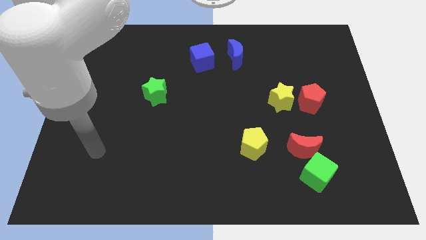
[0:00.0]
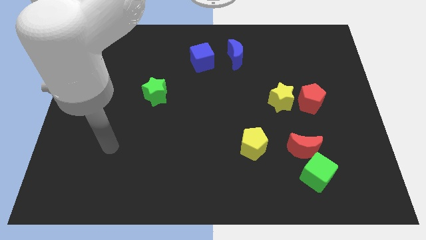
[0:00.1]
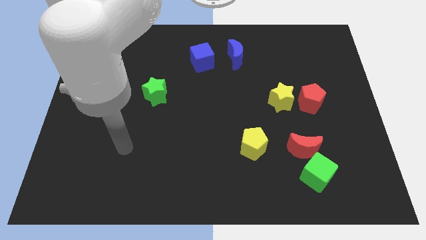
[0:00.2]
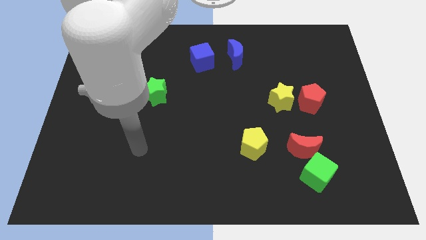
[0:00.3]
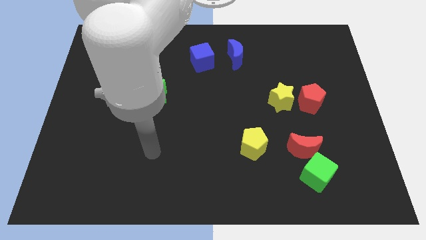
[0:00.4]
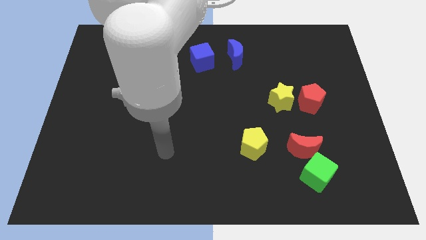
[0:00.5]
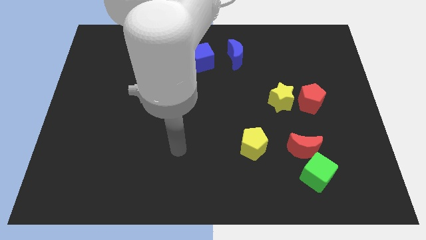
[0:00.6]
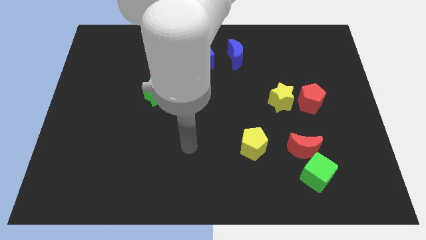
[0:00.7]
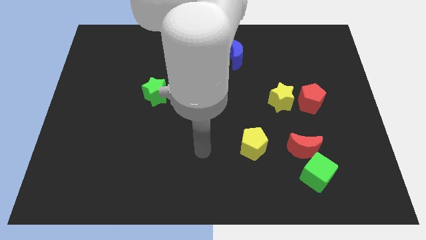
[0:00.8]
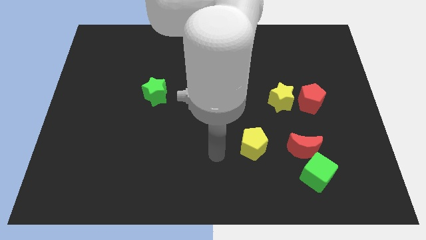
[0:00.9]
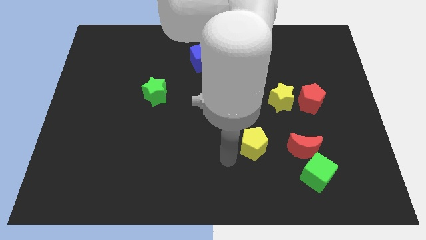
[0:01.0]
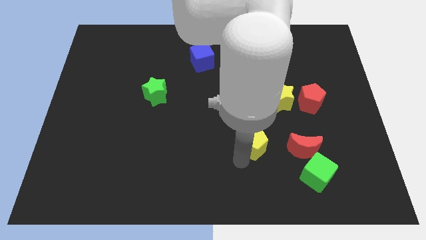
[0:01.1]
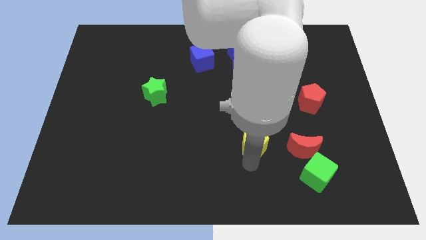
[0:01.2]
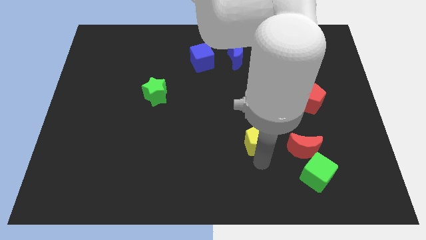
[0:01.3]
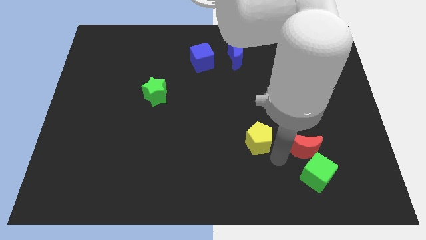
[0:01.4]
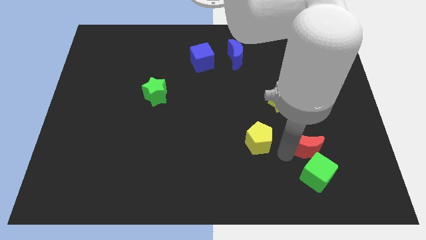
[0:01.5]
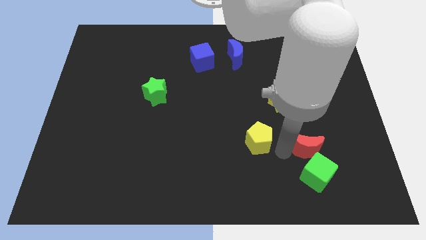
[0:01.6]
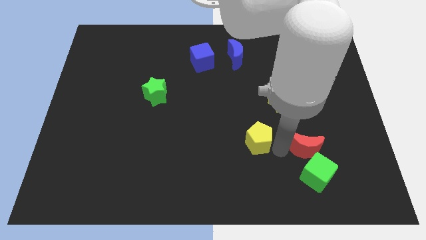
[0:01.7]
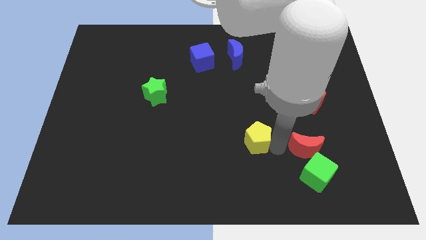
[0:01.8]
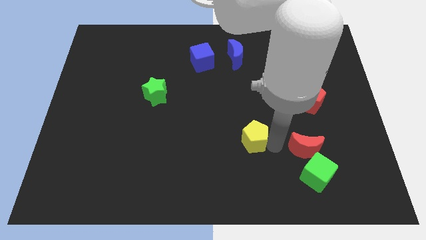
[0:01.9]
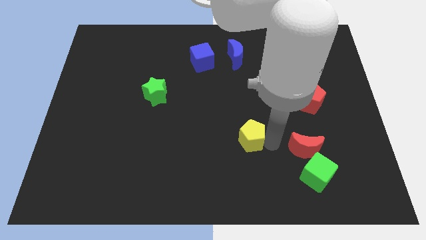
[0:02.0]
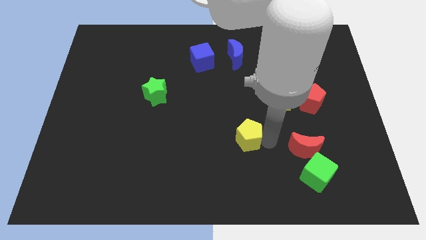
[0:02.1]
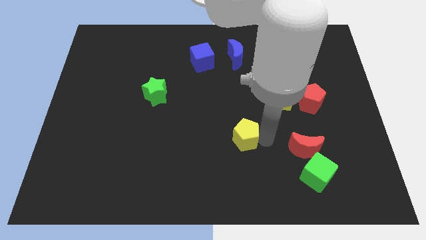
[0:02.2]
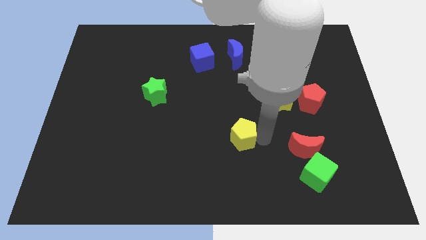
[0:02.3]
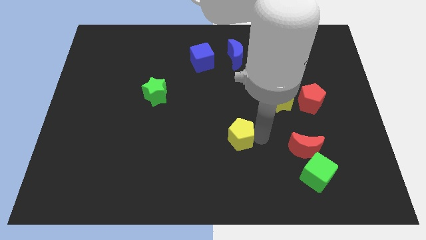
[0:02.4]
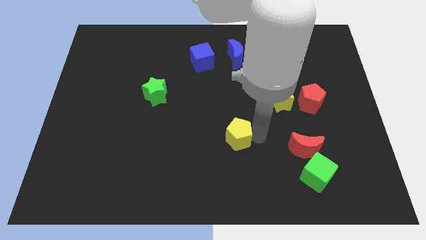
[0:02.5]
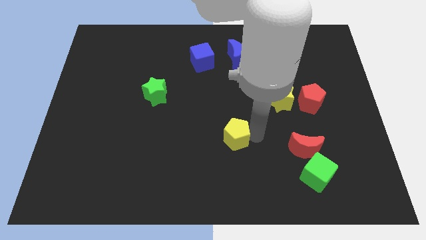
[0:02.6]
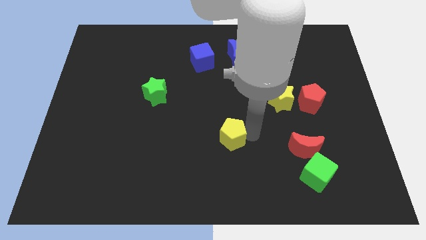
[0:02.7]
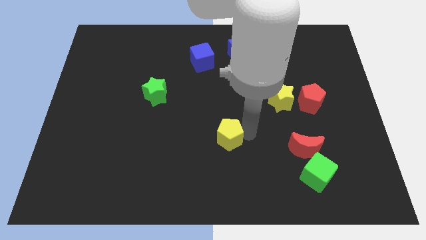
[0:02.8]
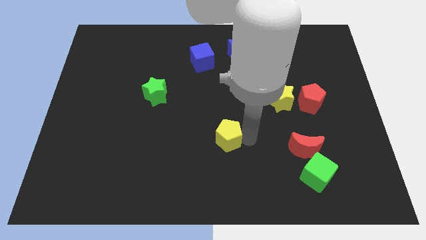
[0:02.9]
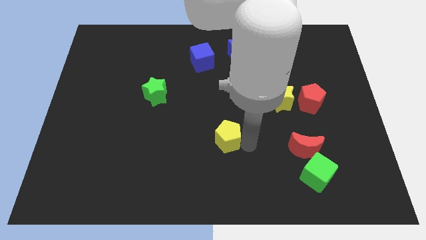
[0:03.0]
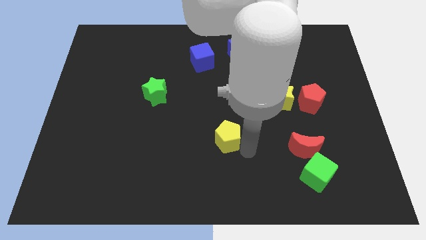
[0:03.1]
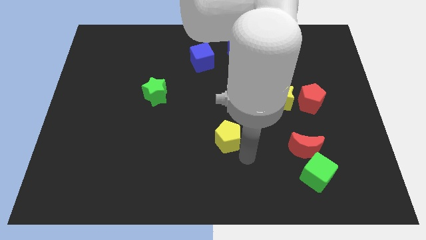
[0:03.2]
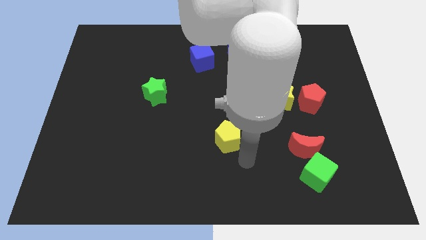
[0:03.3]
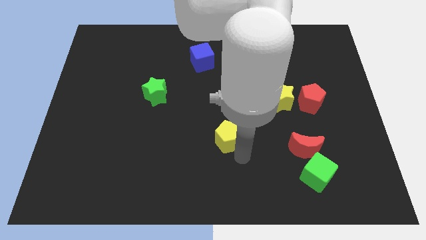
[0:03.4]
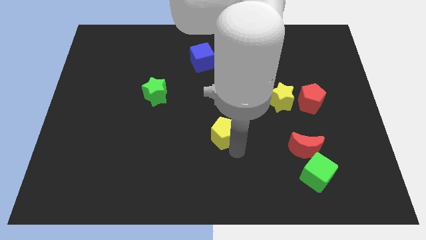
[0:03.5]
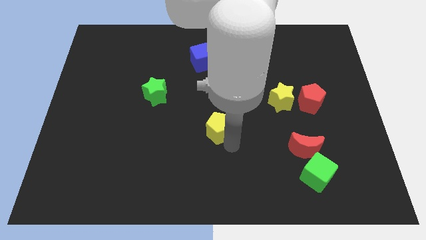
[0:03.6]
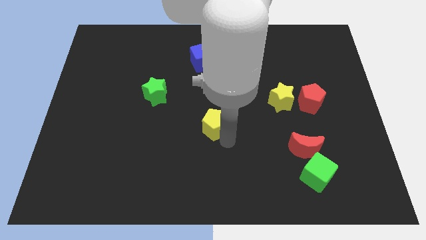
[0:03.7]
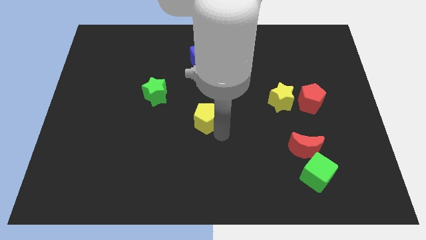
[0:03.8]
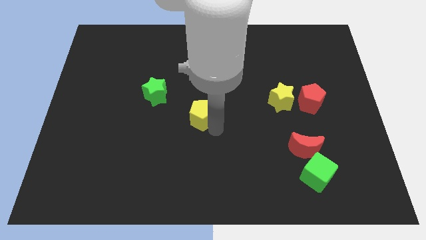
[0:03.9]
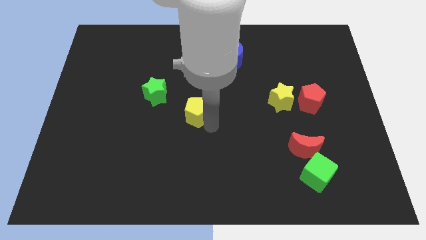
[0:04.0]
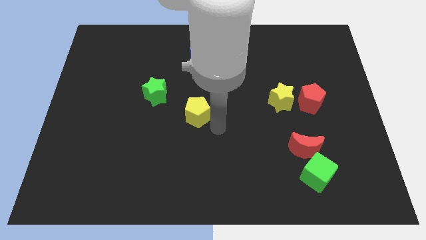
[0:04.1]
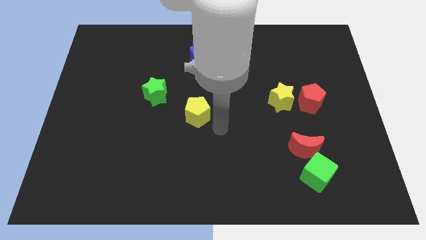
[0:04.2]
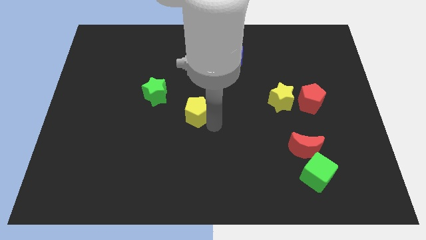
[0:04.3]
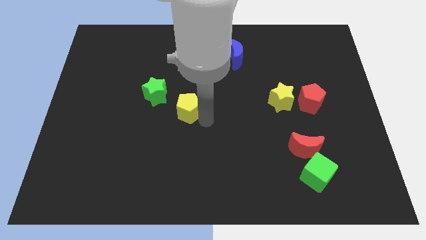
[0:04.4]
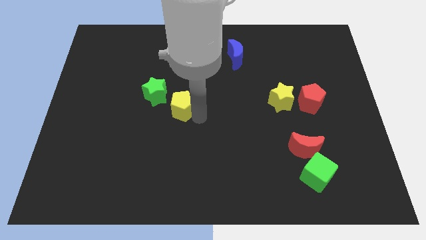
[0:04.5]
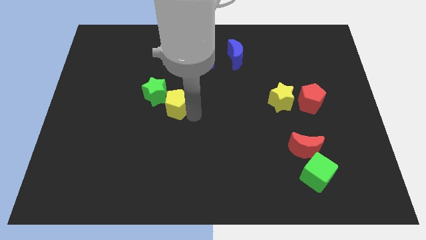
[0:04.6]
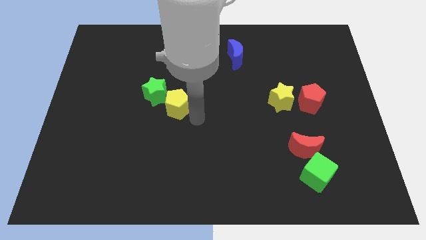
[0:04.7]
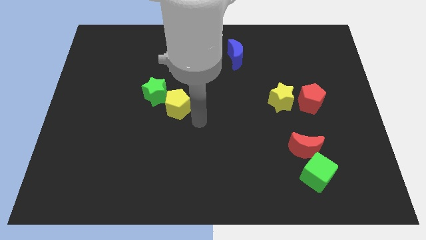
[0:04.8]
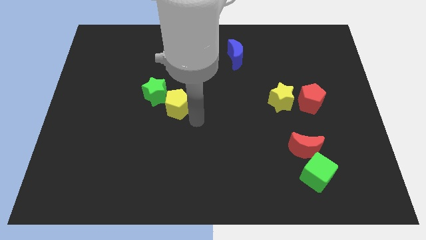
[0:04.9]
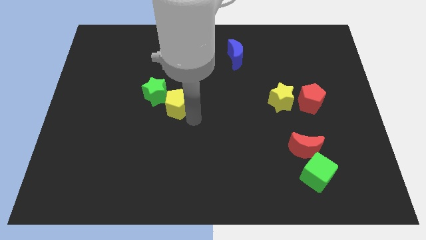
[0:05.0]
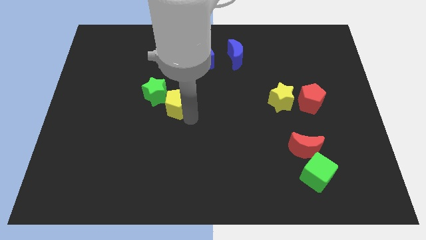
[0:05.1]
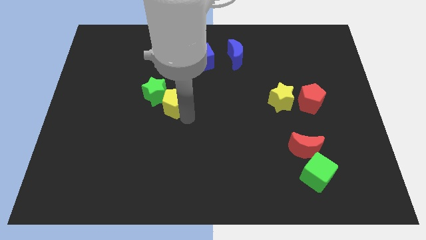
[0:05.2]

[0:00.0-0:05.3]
put the yellow pentagon towards the green star

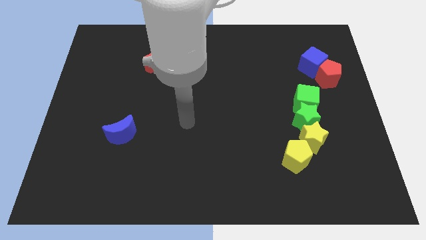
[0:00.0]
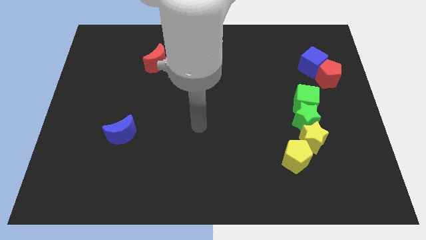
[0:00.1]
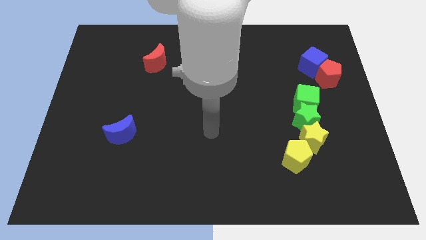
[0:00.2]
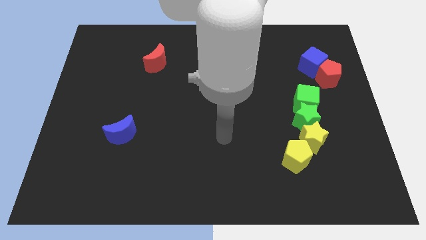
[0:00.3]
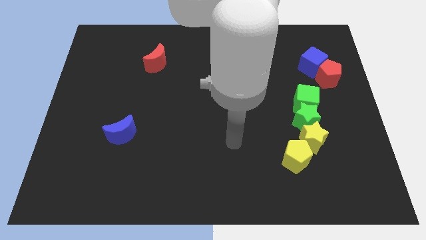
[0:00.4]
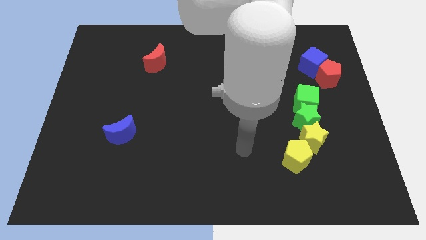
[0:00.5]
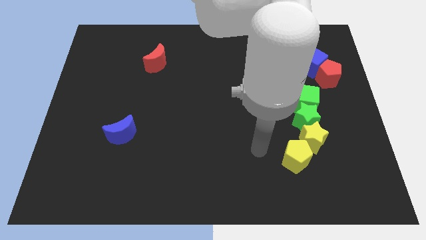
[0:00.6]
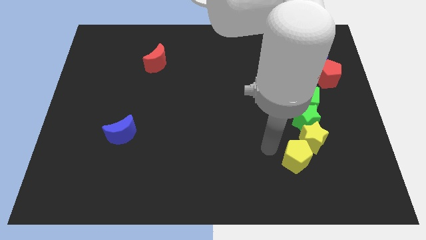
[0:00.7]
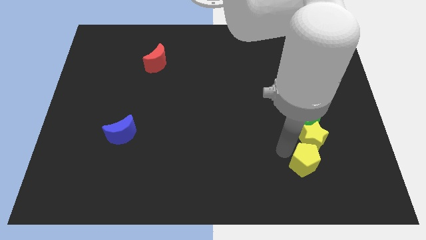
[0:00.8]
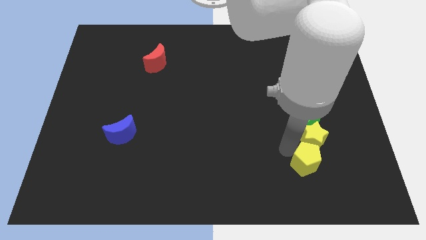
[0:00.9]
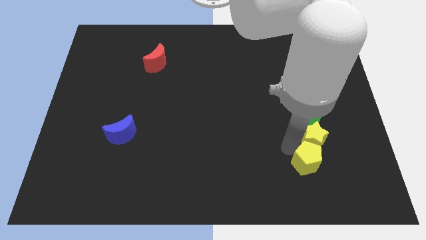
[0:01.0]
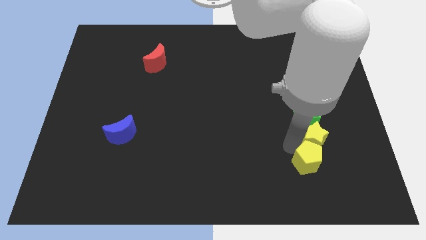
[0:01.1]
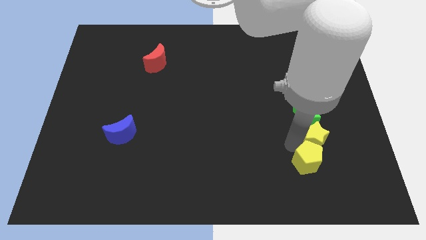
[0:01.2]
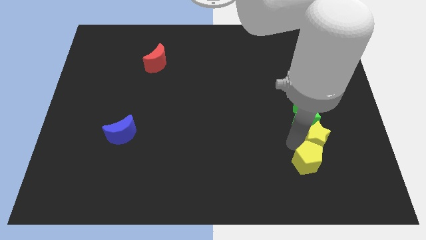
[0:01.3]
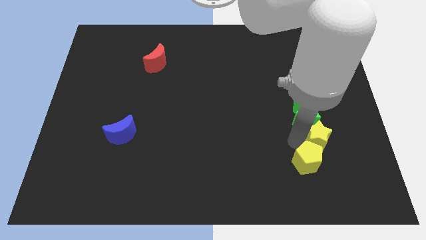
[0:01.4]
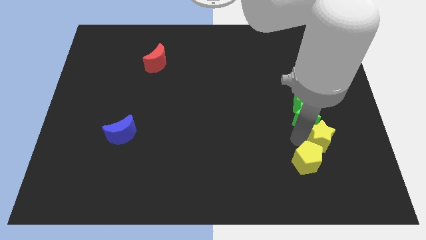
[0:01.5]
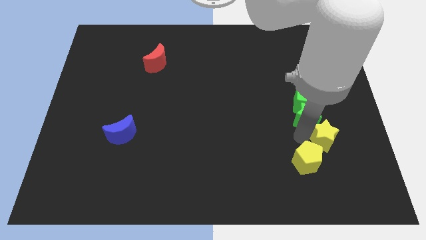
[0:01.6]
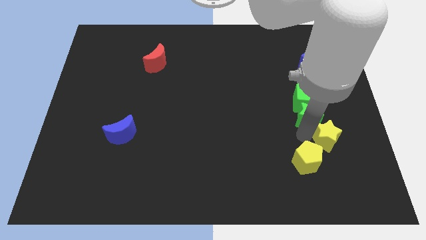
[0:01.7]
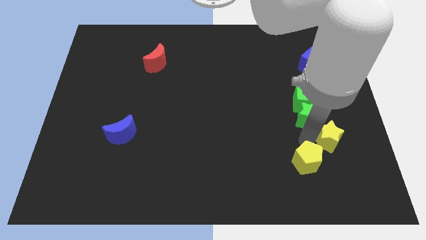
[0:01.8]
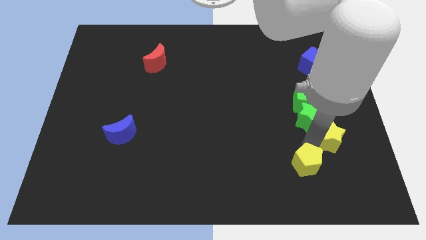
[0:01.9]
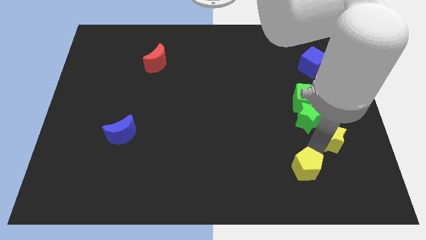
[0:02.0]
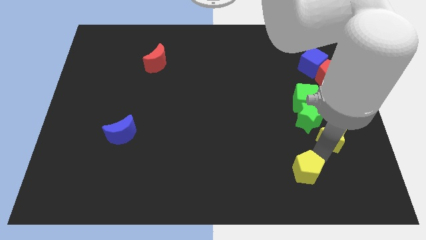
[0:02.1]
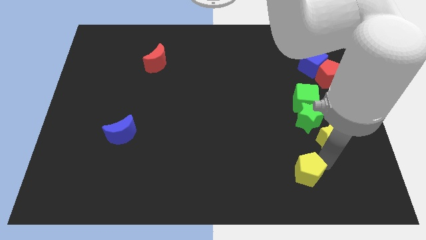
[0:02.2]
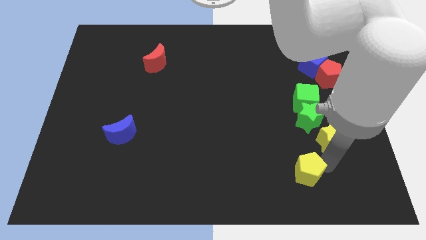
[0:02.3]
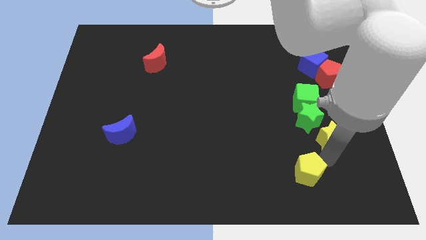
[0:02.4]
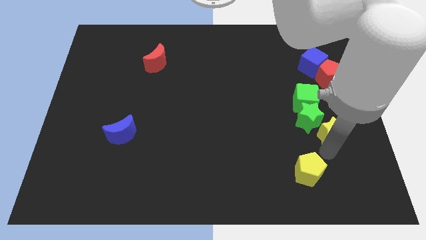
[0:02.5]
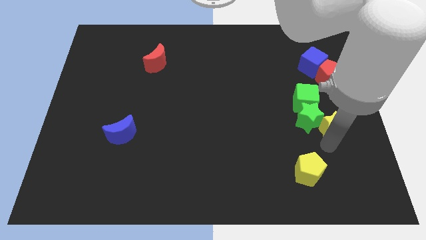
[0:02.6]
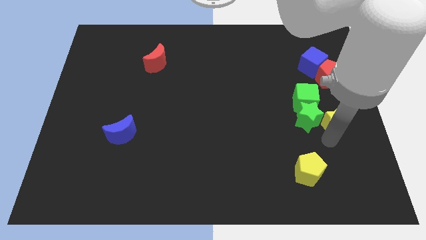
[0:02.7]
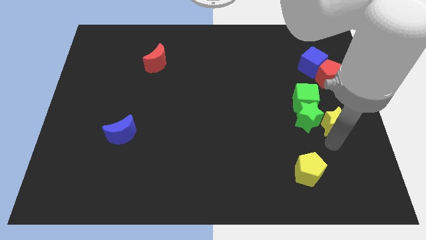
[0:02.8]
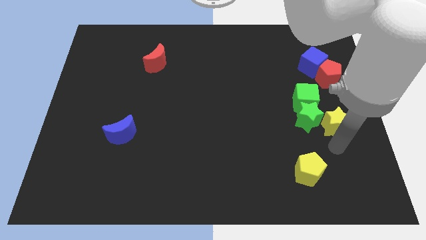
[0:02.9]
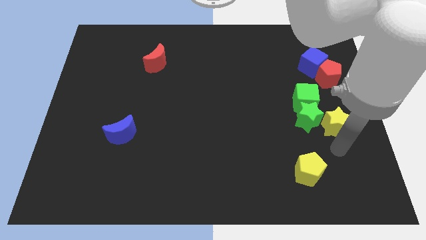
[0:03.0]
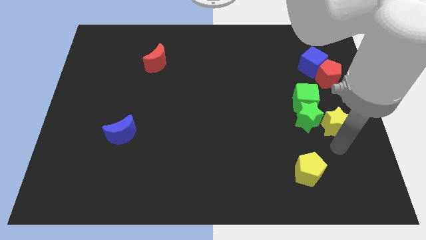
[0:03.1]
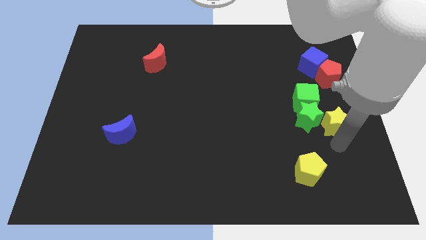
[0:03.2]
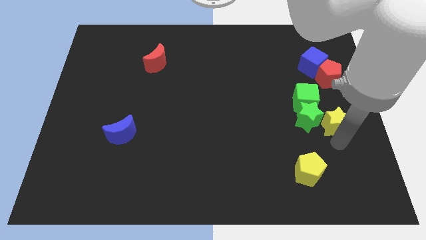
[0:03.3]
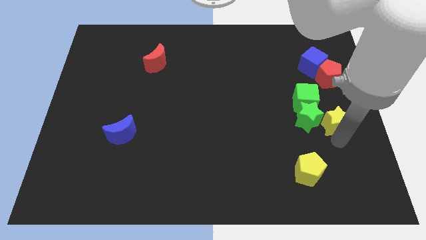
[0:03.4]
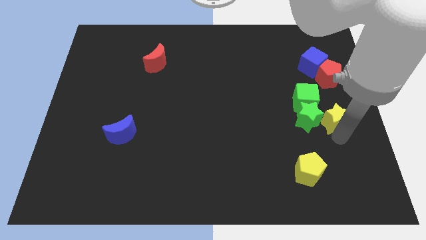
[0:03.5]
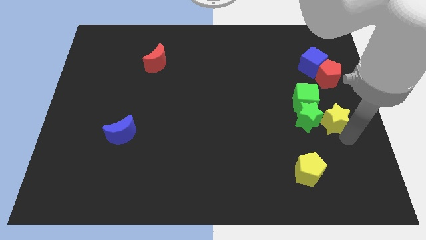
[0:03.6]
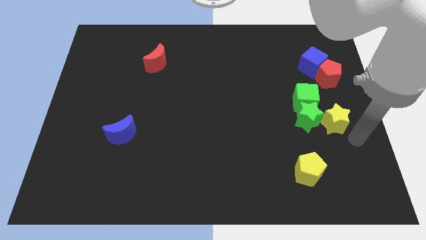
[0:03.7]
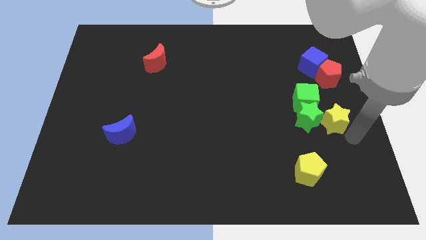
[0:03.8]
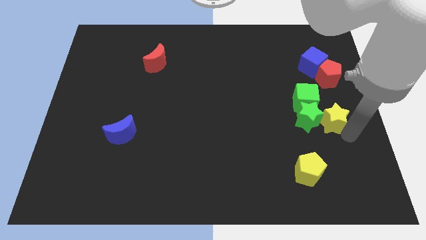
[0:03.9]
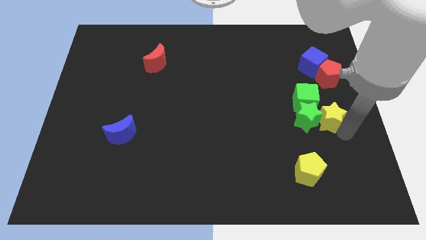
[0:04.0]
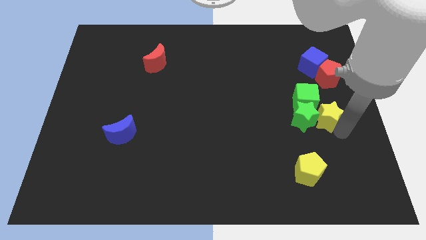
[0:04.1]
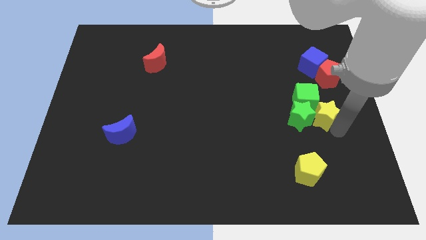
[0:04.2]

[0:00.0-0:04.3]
push the yellow star to the green cube
